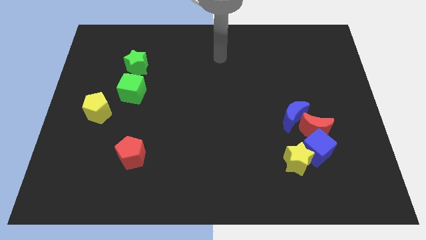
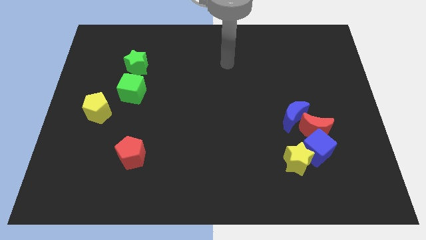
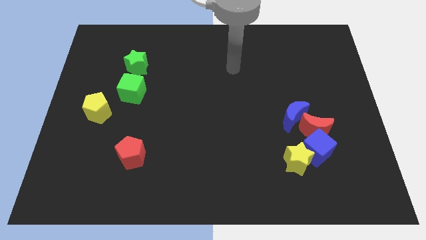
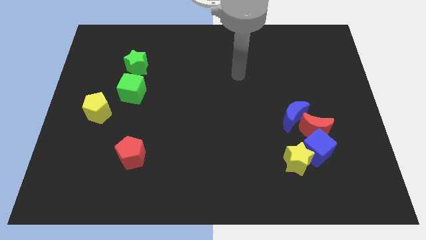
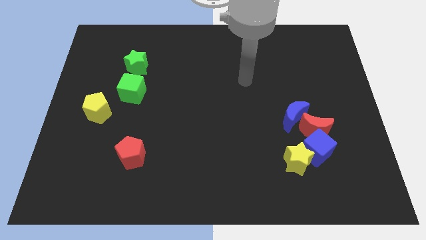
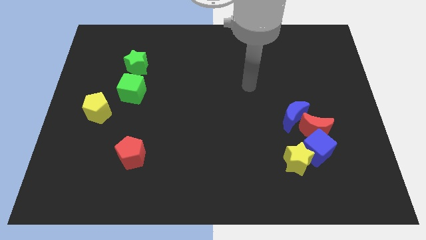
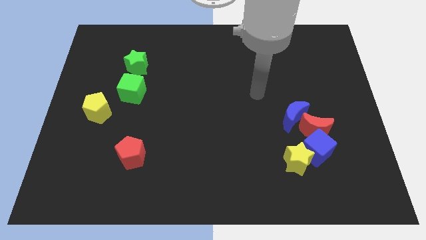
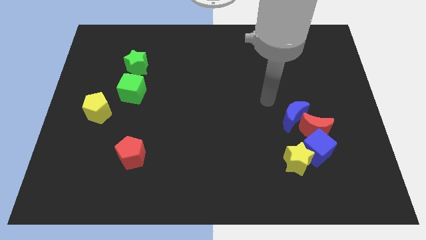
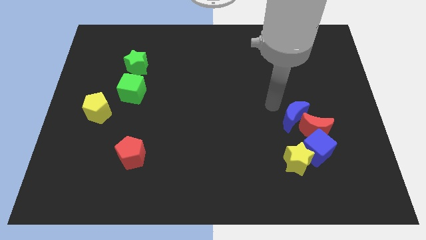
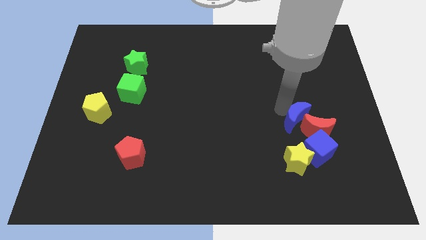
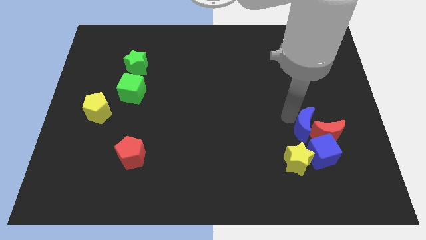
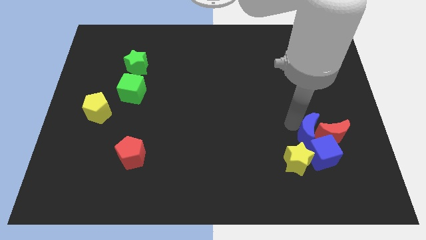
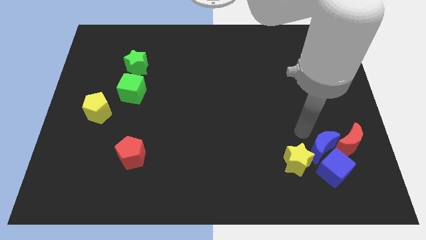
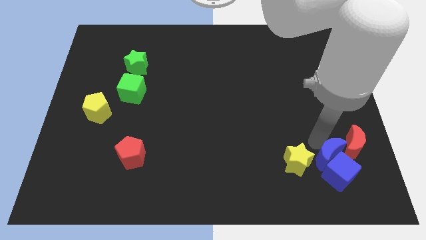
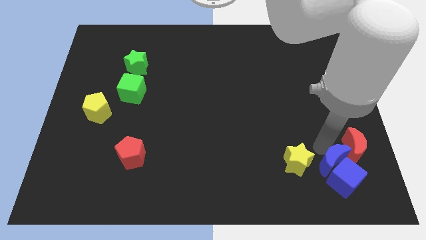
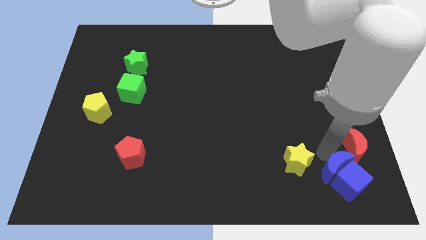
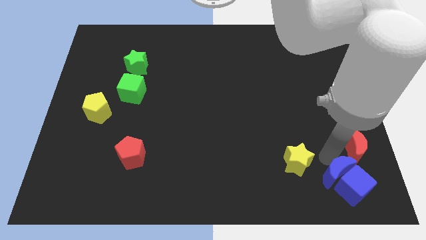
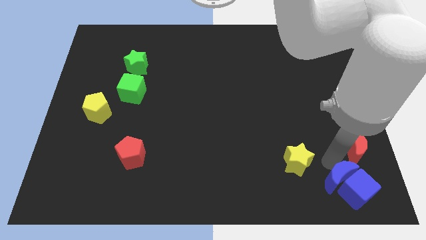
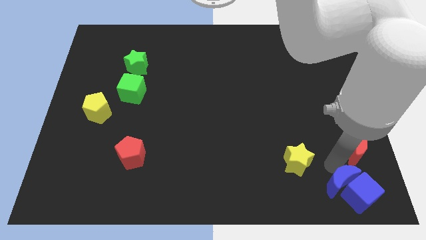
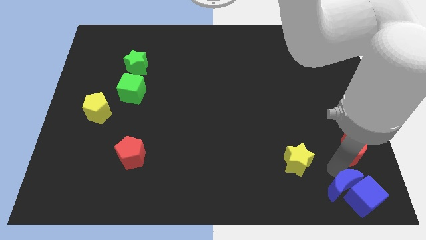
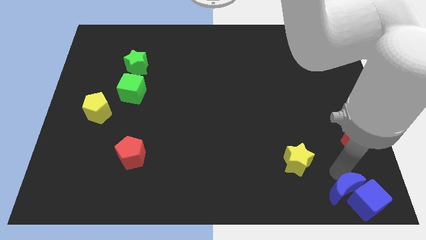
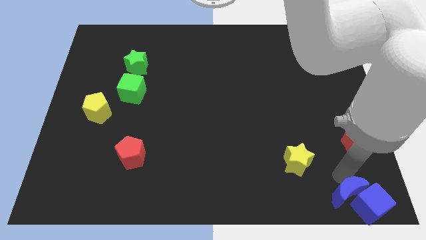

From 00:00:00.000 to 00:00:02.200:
separate the blue cube from the yellow star, red moon, and blue moon

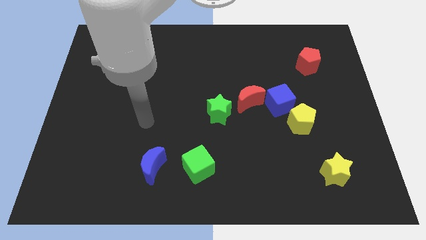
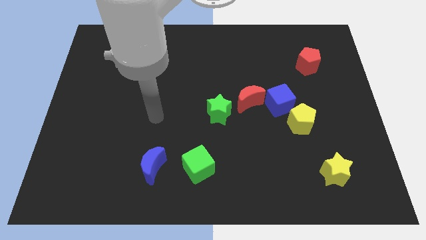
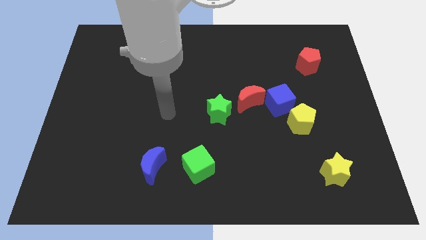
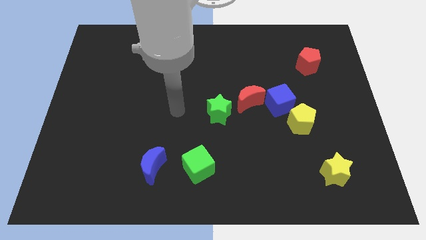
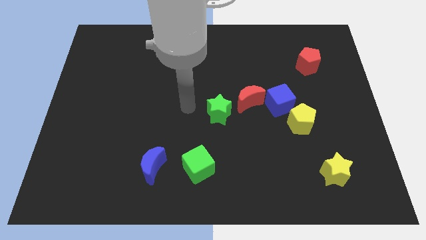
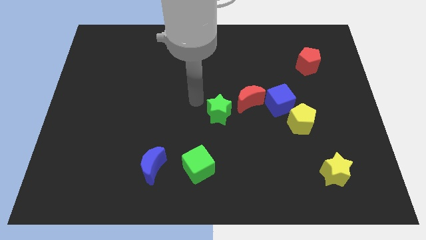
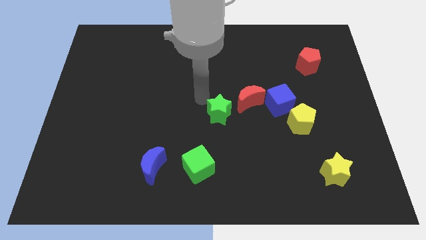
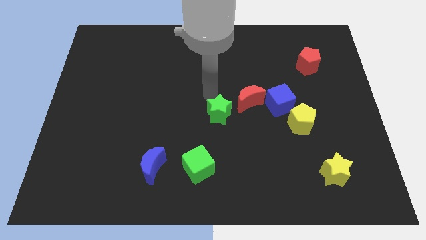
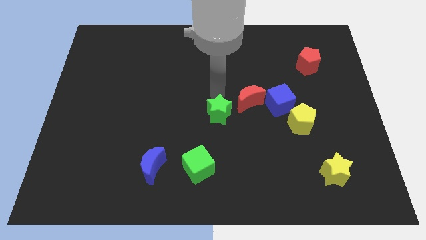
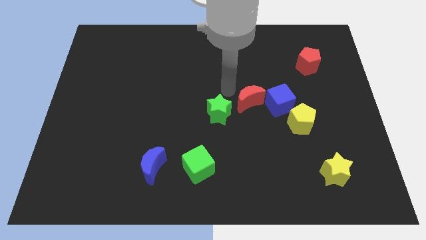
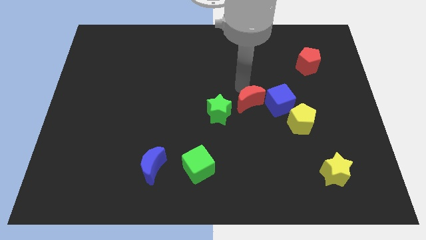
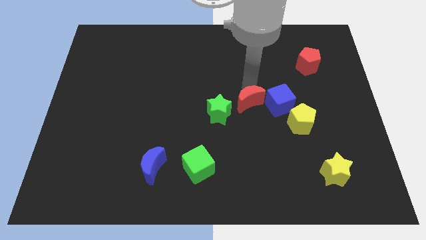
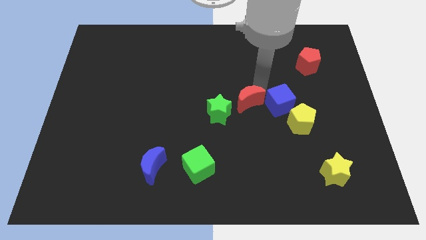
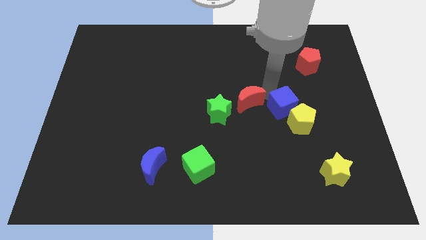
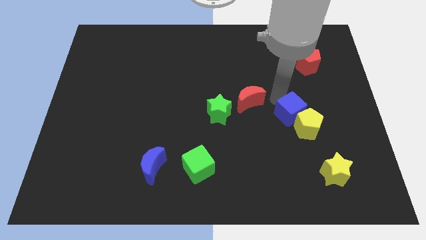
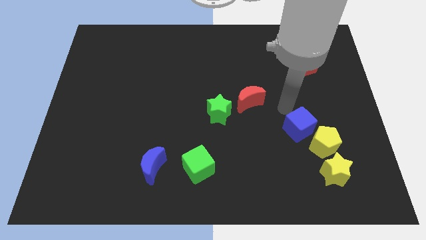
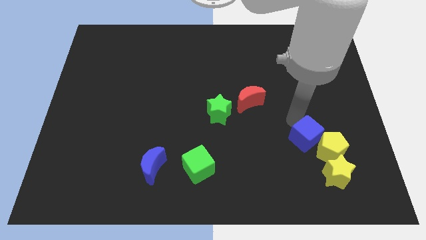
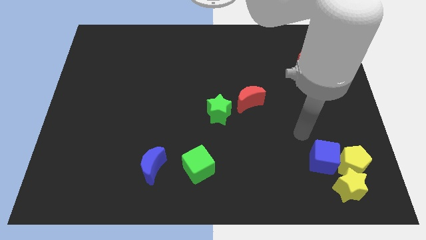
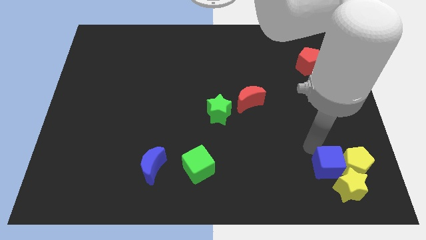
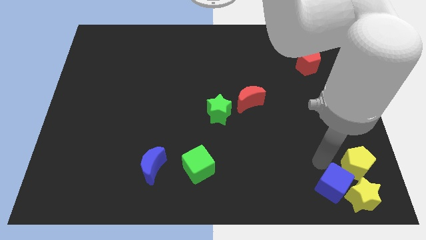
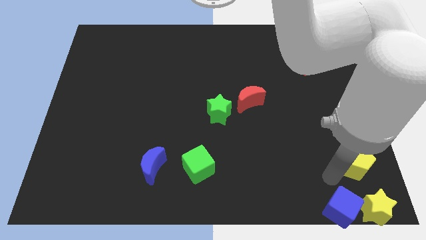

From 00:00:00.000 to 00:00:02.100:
move the yellow pentagon away from the blue cube

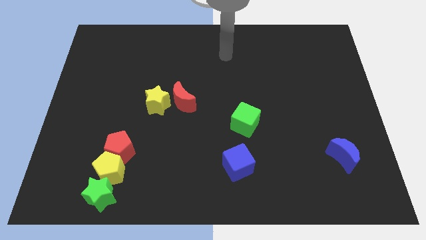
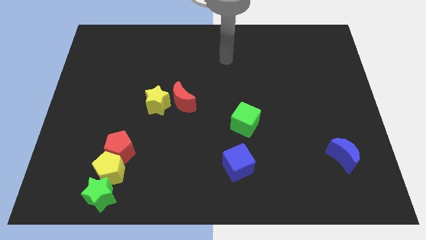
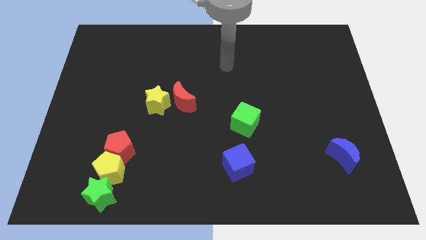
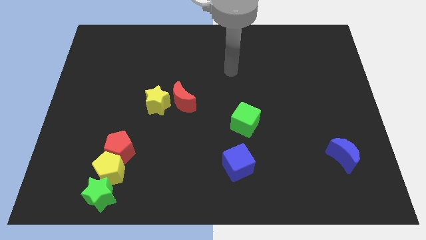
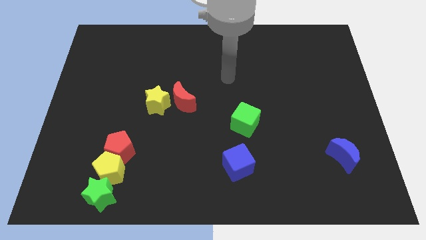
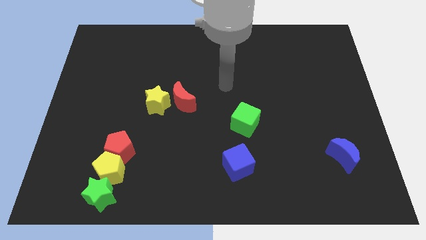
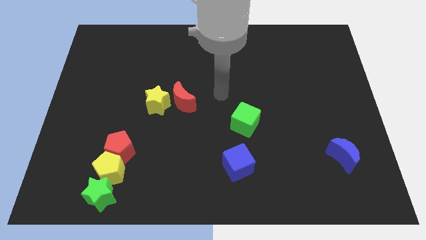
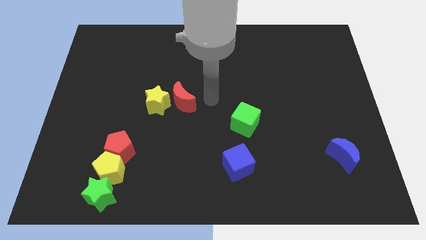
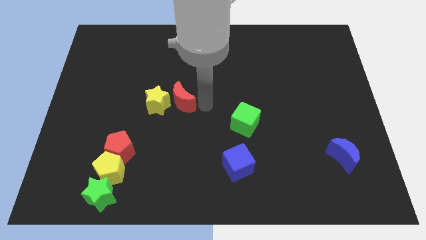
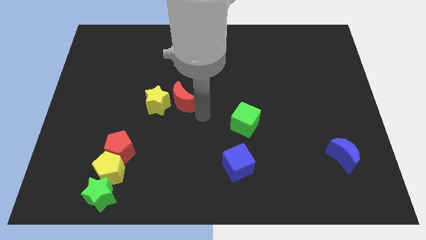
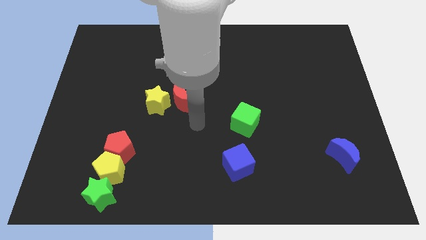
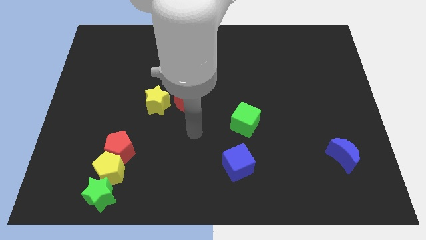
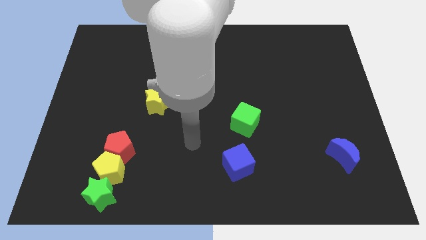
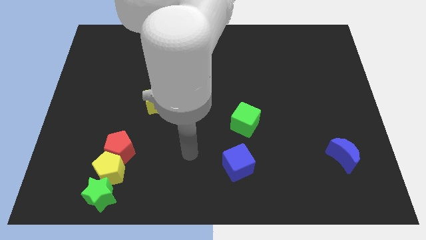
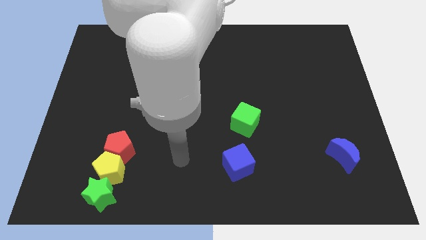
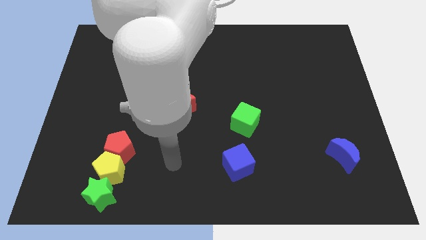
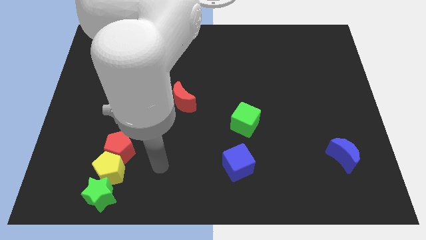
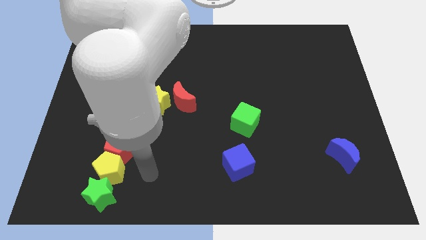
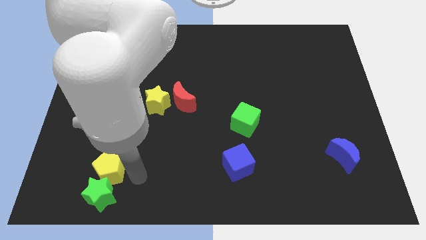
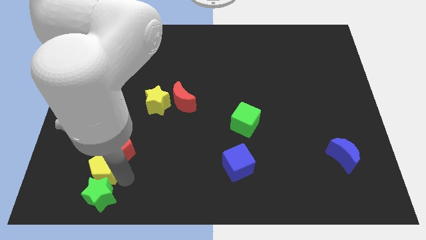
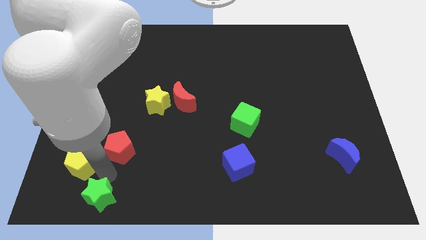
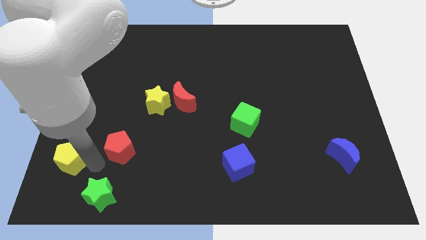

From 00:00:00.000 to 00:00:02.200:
move the red pentagon away from the yellow pentagon

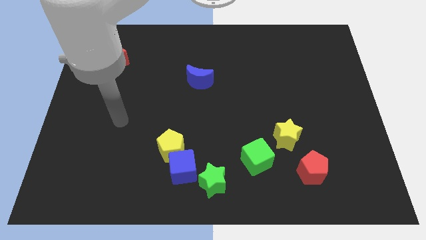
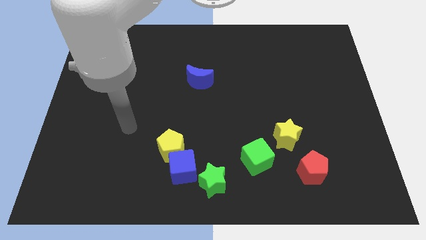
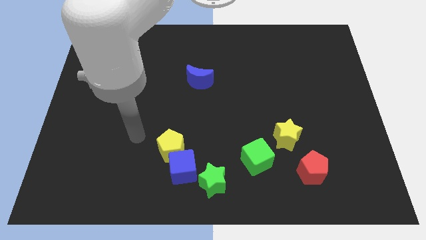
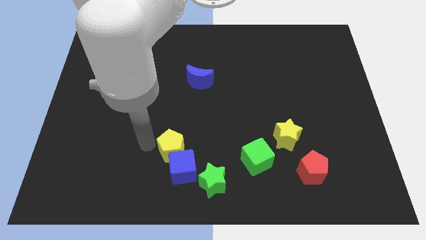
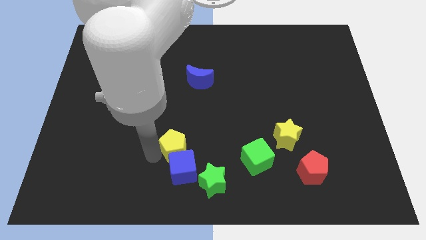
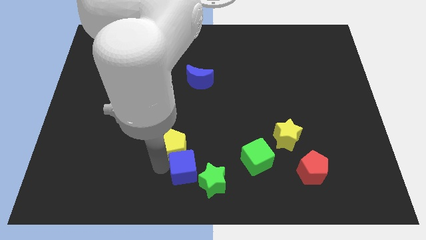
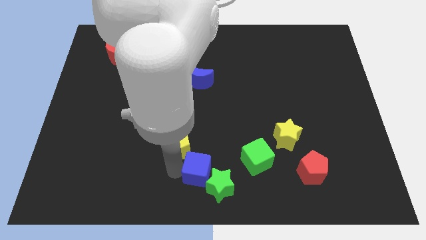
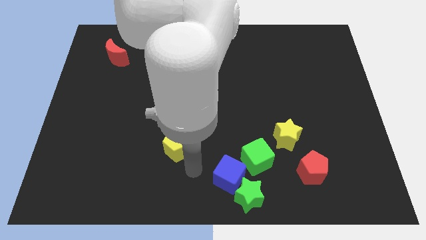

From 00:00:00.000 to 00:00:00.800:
separate the yellow pentagon from the blue cube

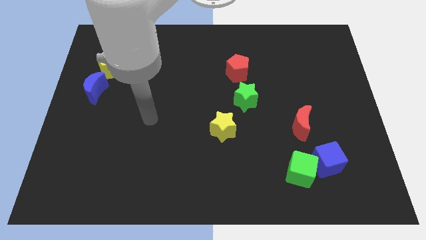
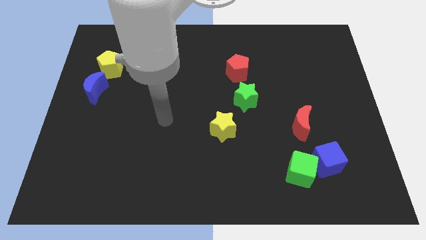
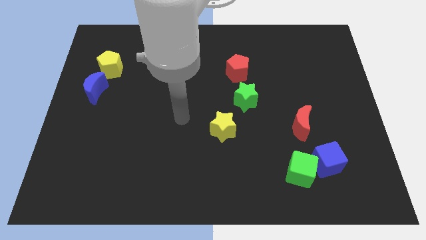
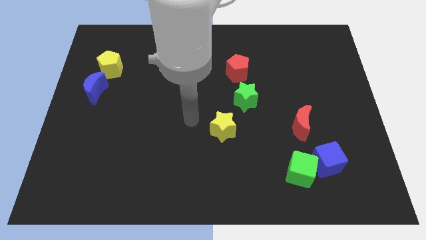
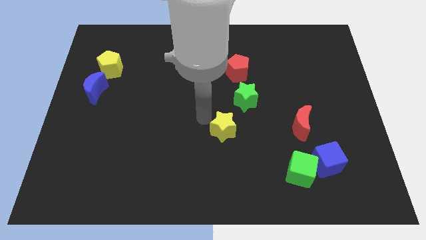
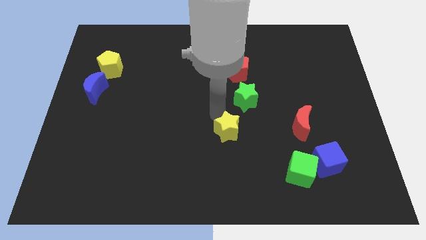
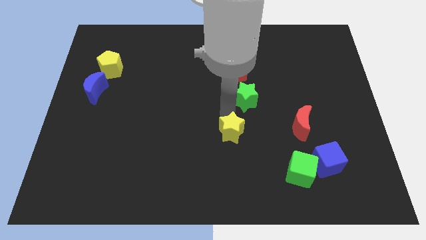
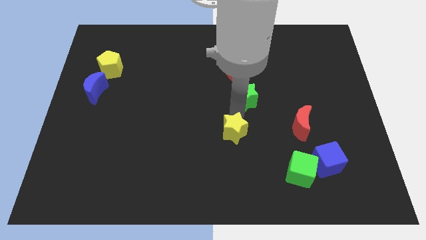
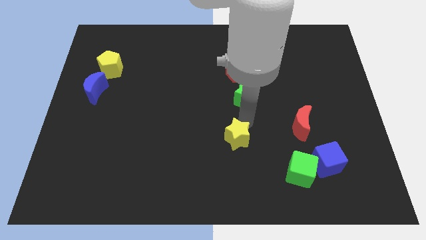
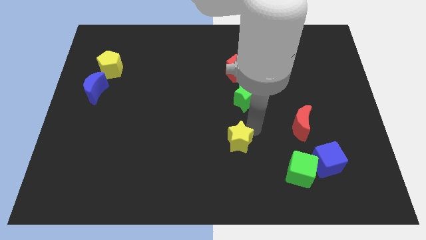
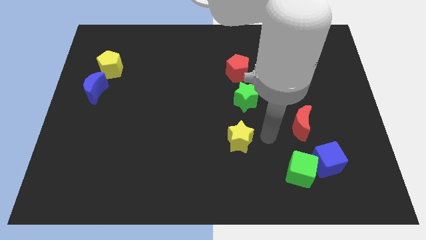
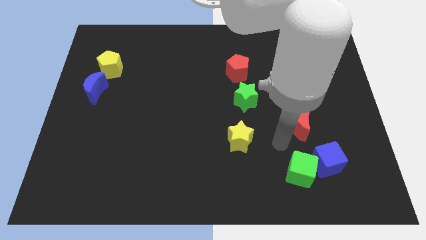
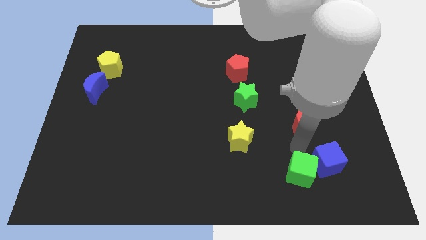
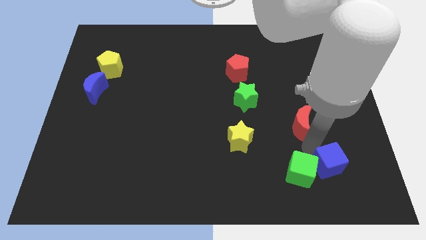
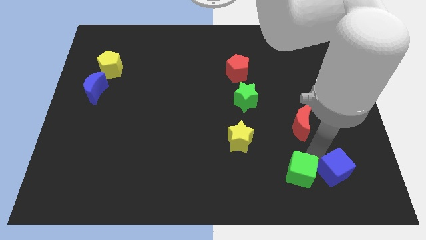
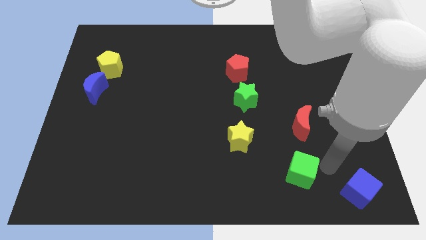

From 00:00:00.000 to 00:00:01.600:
separate the green cube from the blue cube

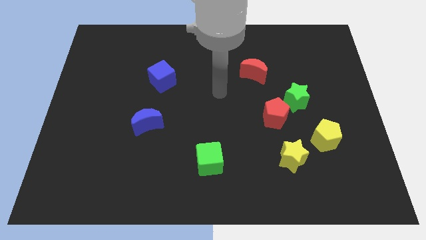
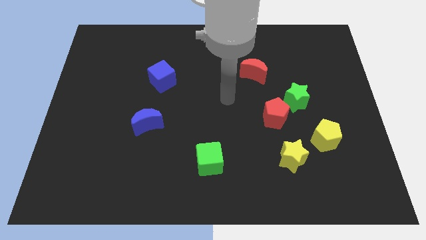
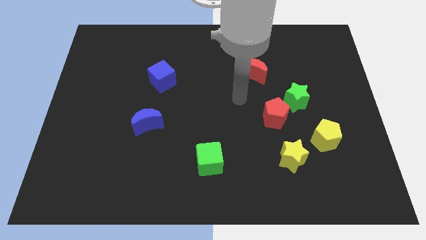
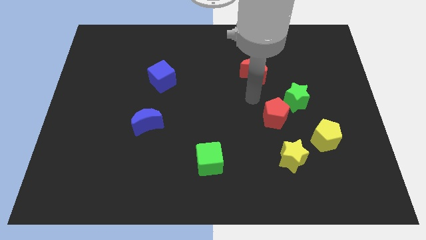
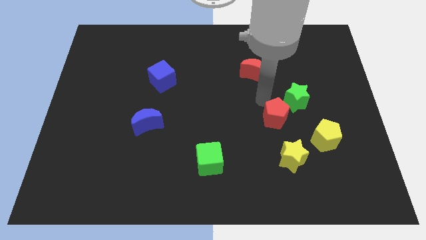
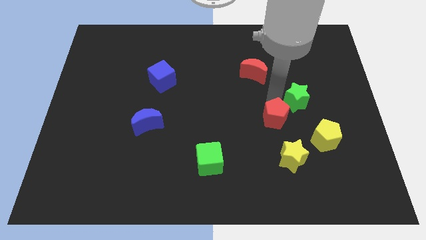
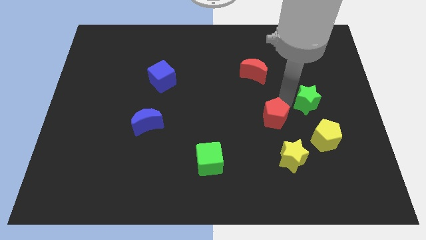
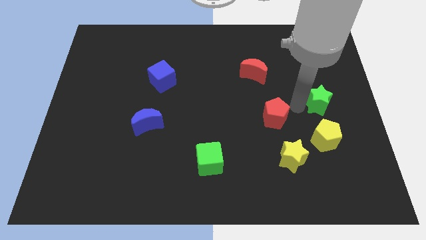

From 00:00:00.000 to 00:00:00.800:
move the red pentagon away from the green star
